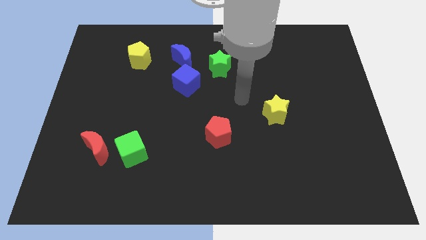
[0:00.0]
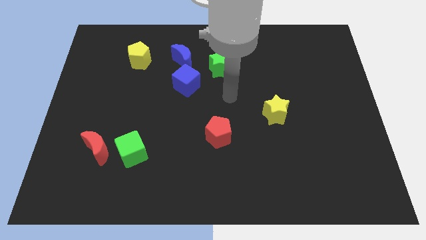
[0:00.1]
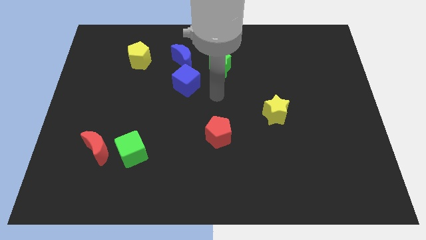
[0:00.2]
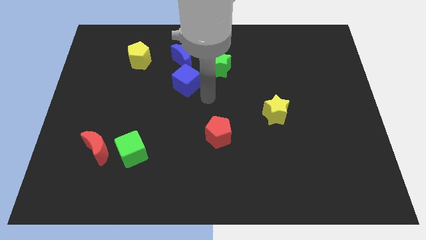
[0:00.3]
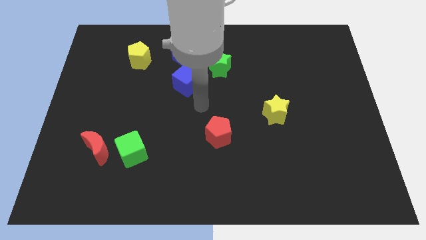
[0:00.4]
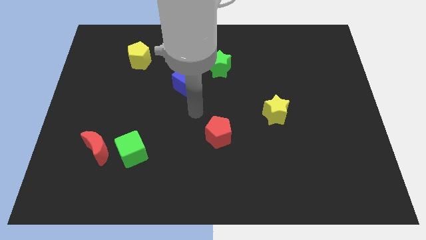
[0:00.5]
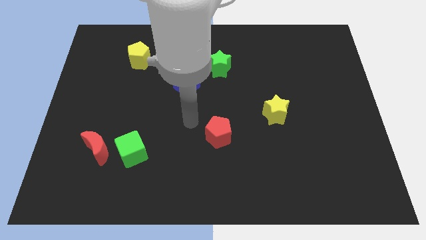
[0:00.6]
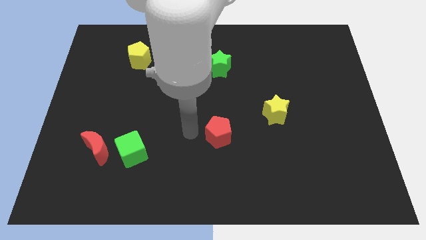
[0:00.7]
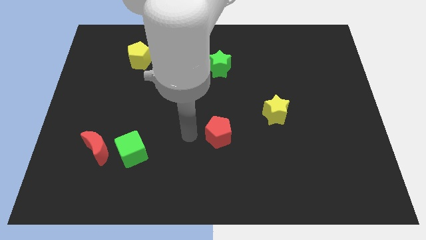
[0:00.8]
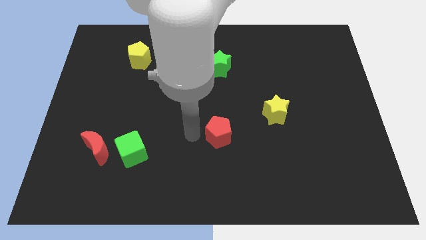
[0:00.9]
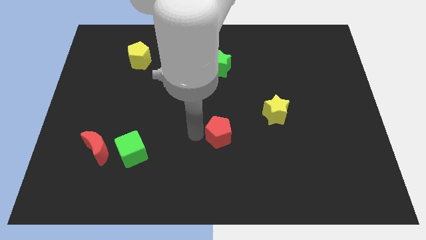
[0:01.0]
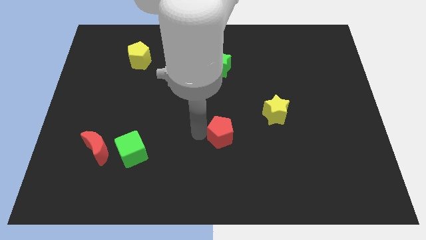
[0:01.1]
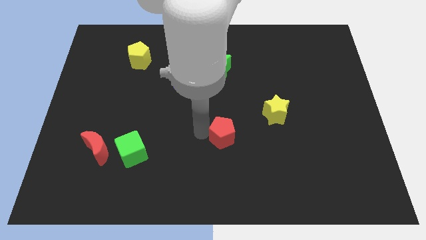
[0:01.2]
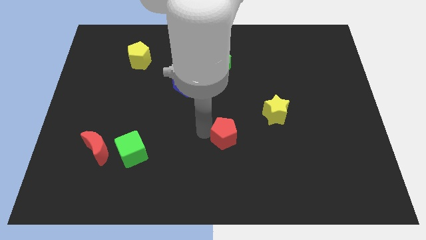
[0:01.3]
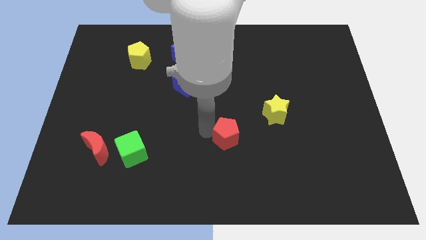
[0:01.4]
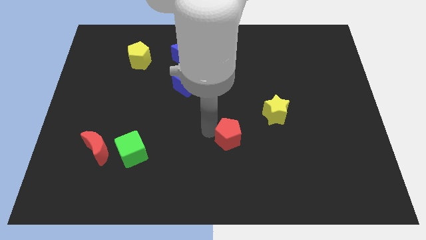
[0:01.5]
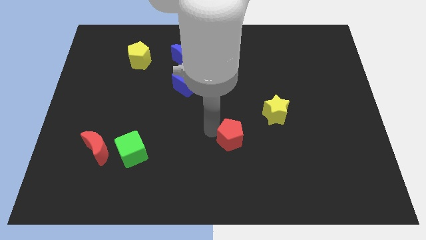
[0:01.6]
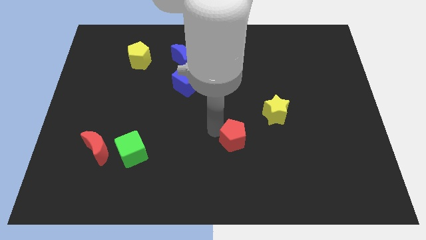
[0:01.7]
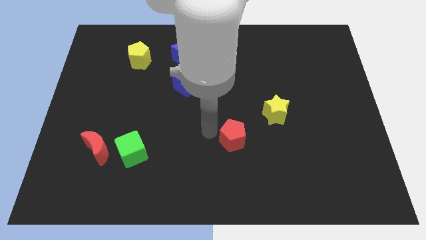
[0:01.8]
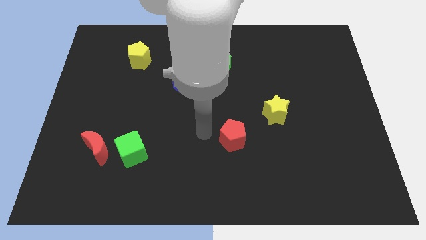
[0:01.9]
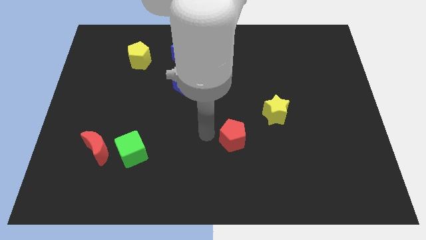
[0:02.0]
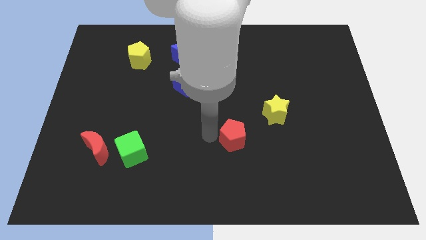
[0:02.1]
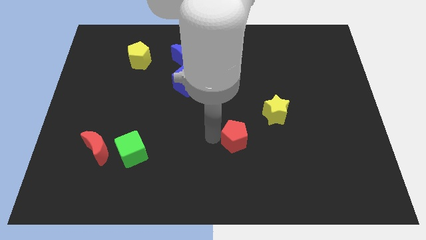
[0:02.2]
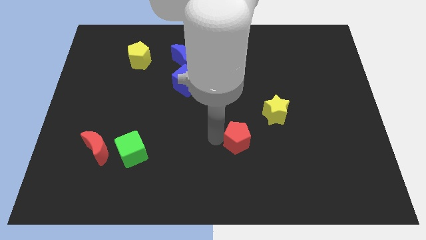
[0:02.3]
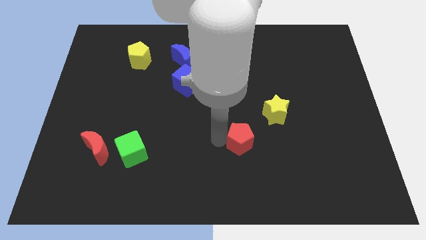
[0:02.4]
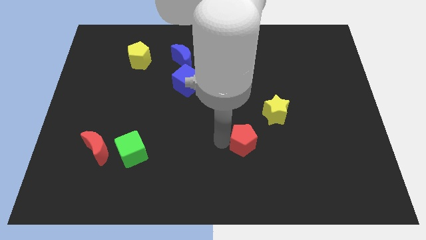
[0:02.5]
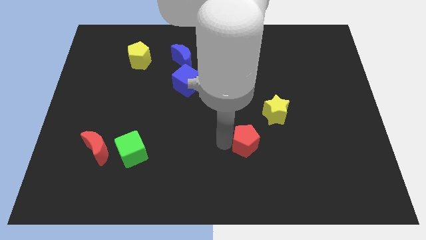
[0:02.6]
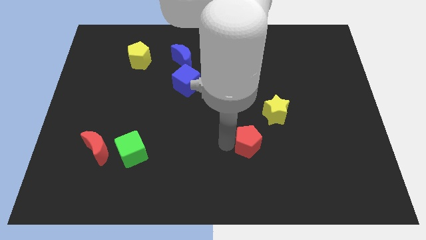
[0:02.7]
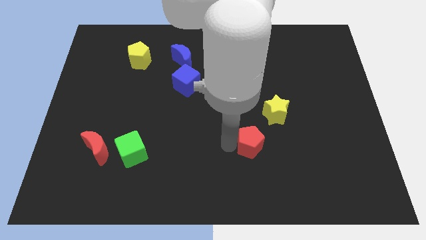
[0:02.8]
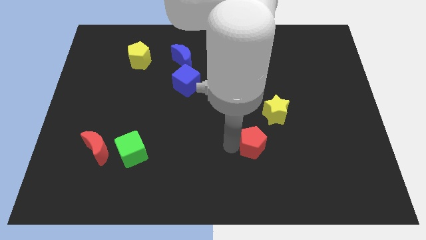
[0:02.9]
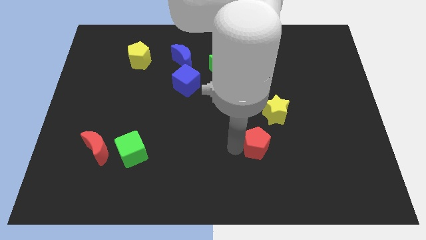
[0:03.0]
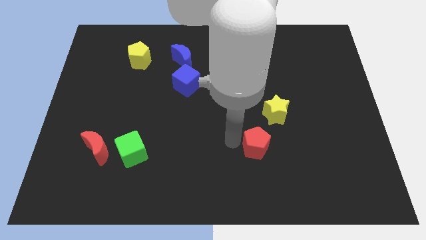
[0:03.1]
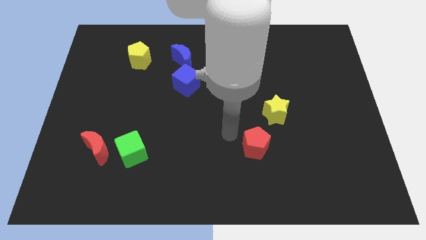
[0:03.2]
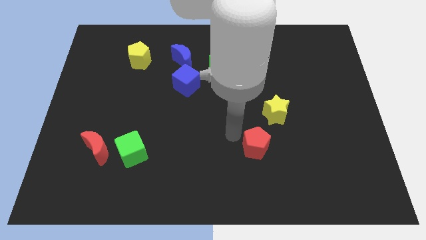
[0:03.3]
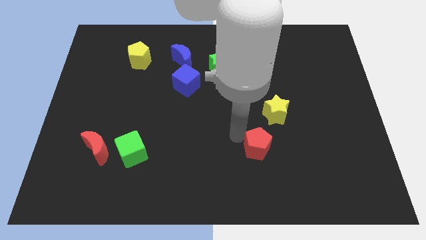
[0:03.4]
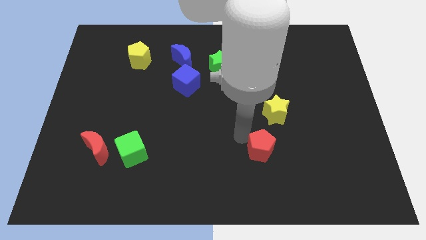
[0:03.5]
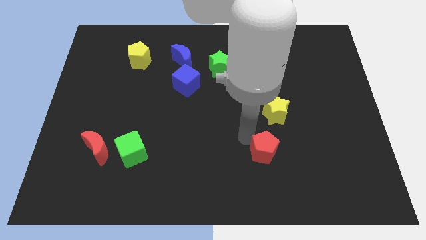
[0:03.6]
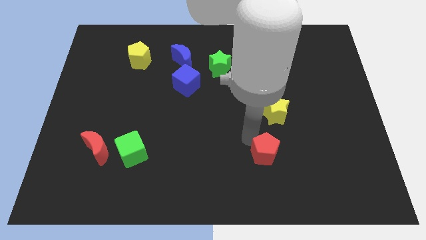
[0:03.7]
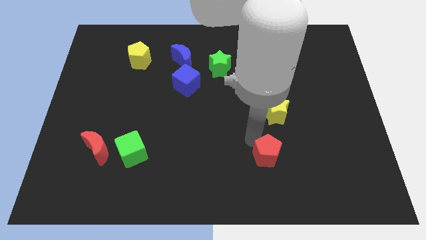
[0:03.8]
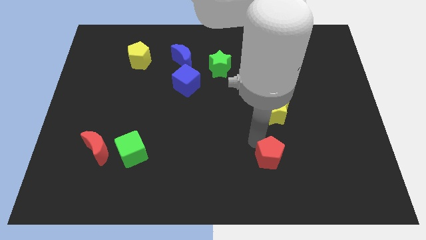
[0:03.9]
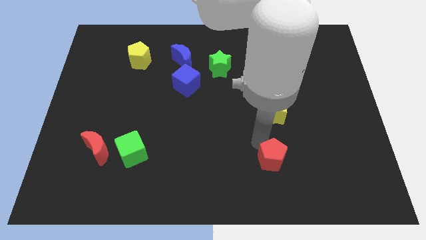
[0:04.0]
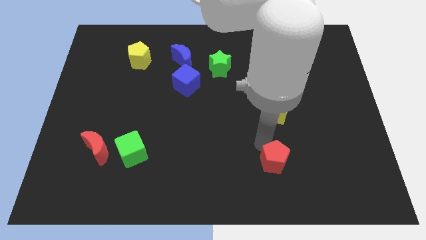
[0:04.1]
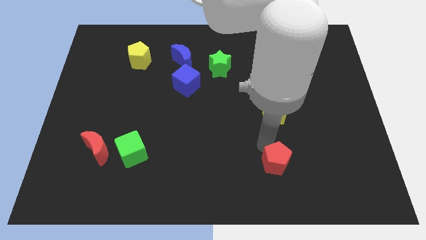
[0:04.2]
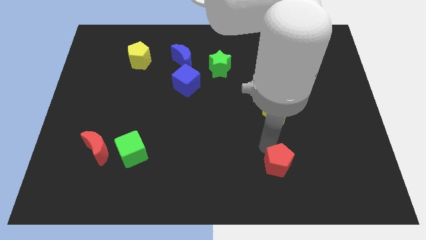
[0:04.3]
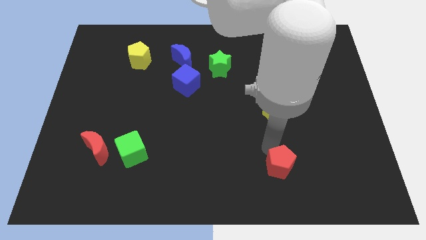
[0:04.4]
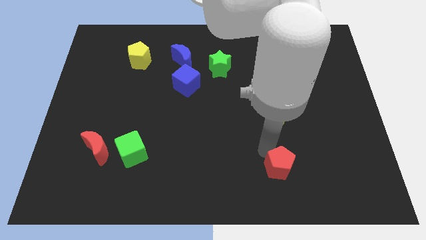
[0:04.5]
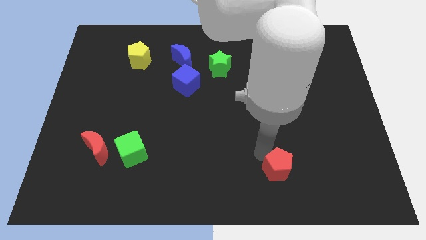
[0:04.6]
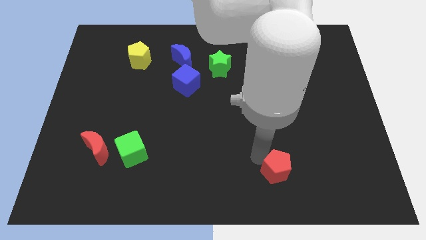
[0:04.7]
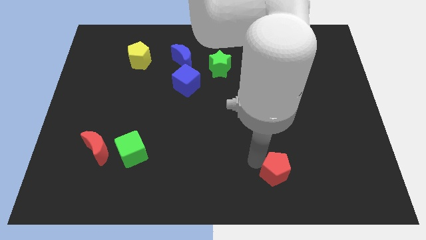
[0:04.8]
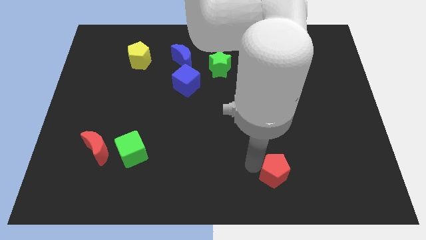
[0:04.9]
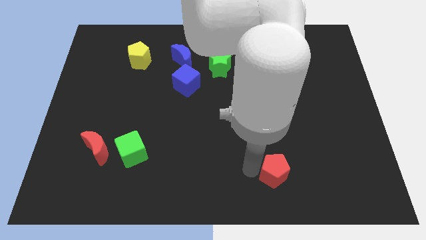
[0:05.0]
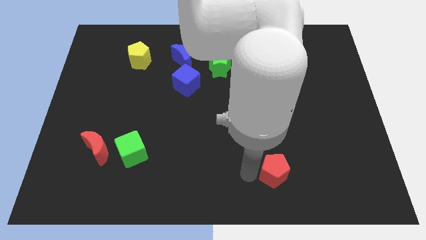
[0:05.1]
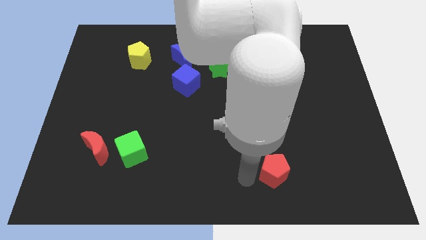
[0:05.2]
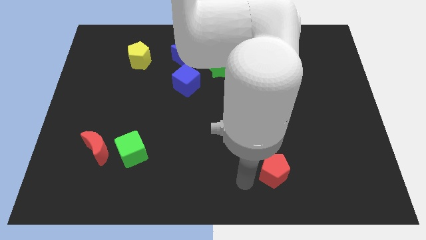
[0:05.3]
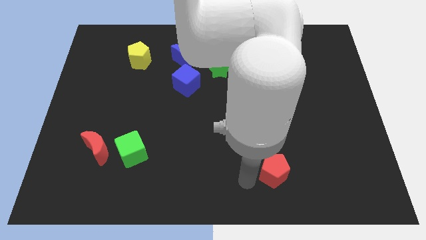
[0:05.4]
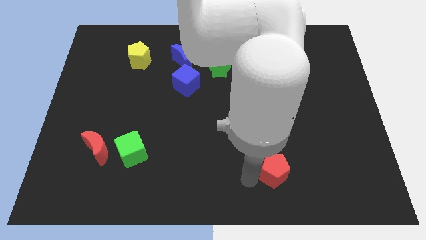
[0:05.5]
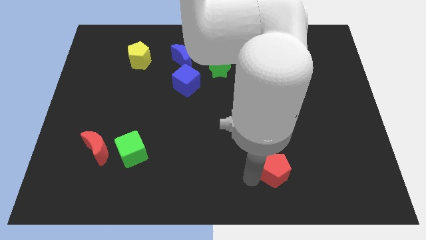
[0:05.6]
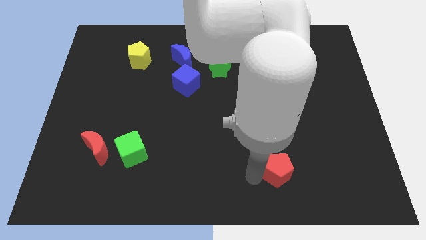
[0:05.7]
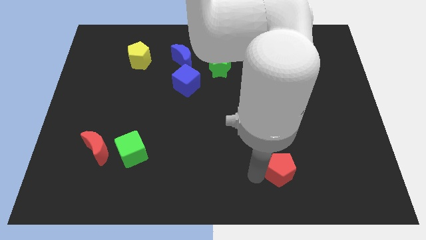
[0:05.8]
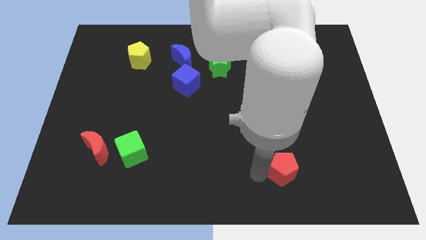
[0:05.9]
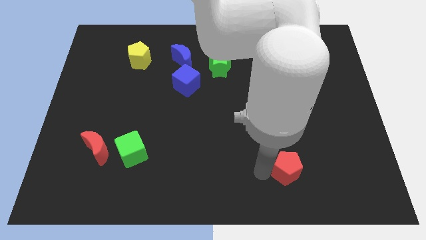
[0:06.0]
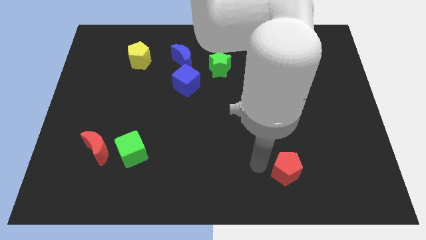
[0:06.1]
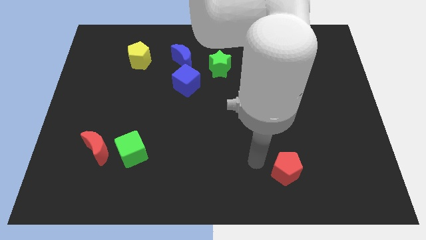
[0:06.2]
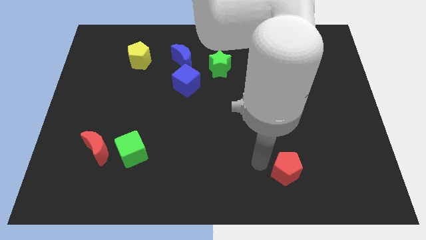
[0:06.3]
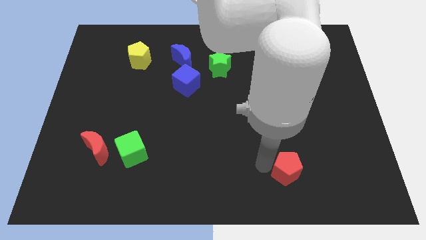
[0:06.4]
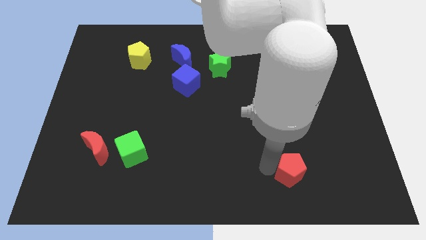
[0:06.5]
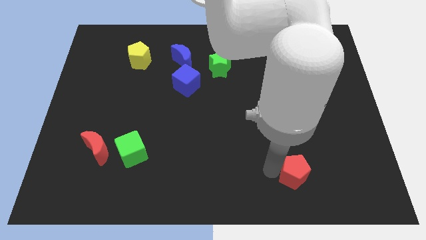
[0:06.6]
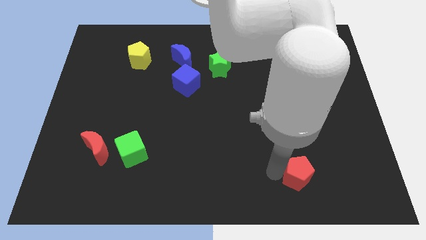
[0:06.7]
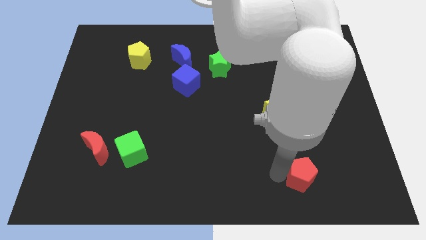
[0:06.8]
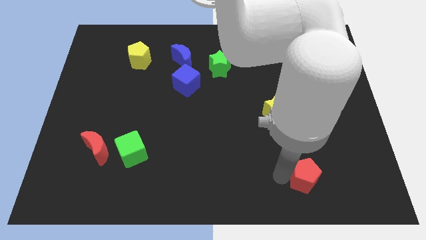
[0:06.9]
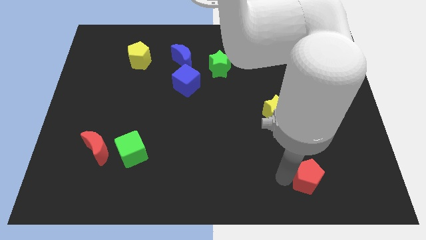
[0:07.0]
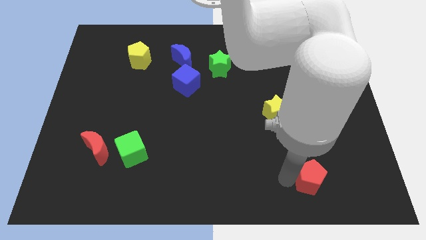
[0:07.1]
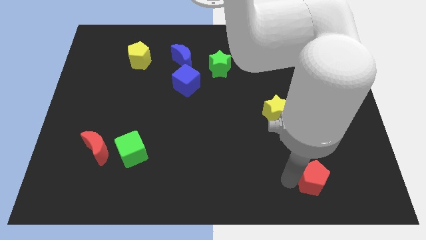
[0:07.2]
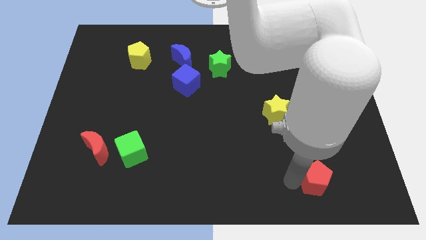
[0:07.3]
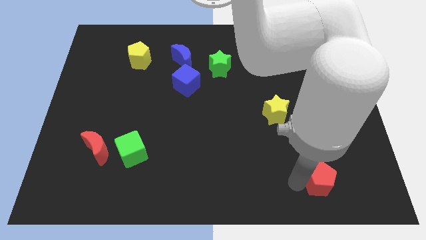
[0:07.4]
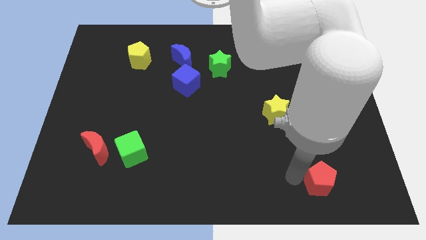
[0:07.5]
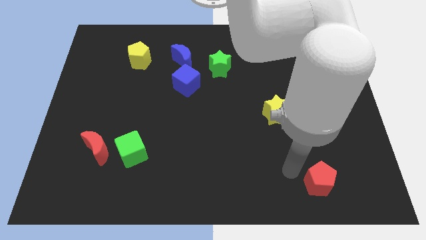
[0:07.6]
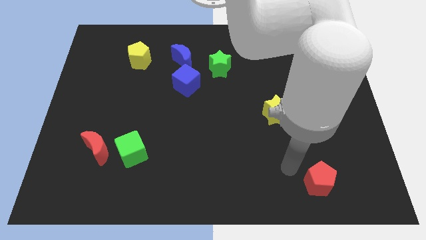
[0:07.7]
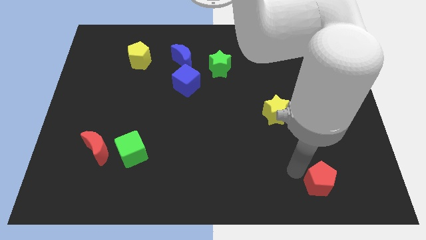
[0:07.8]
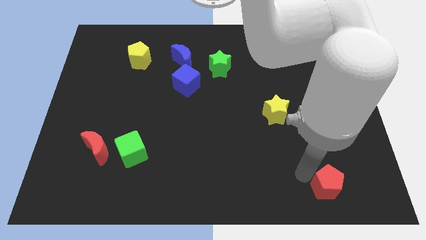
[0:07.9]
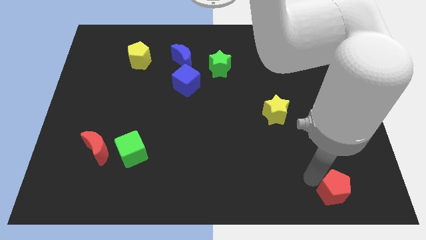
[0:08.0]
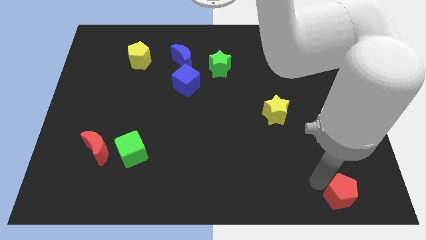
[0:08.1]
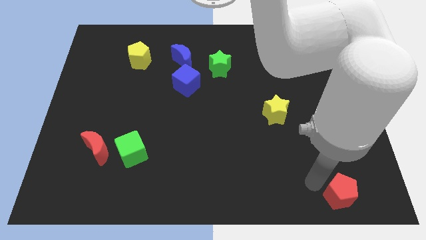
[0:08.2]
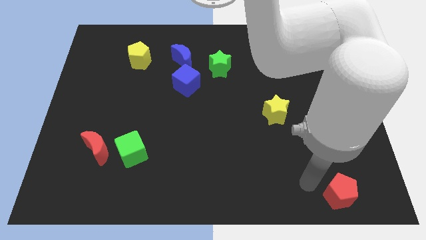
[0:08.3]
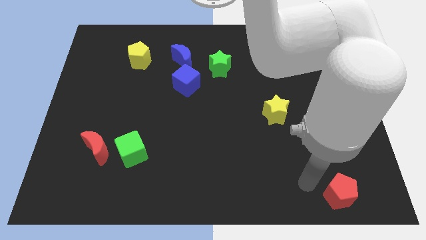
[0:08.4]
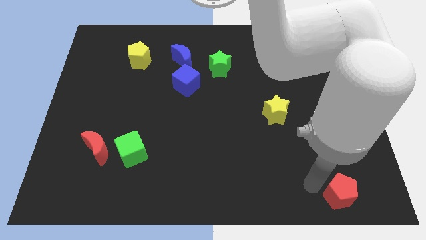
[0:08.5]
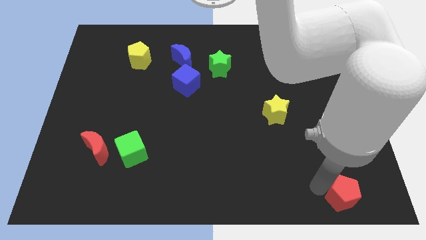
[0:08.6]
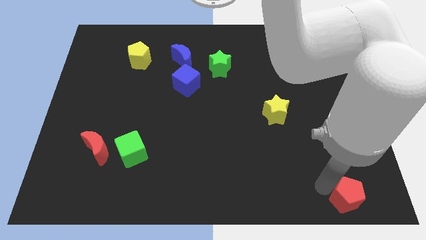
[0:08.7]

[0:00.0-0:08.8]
slide the red pentagon to the bottom right of the board
